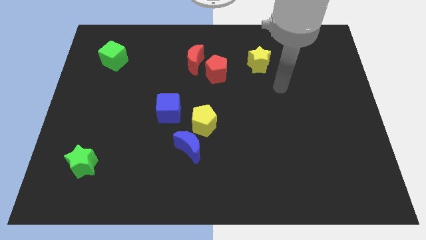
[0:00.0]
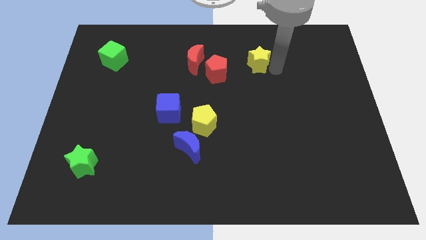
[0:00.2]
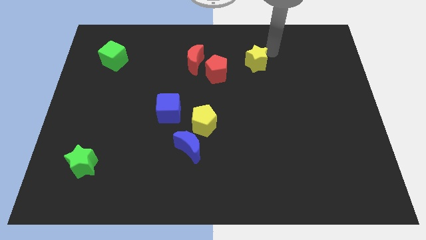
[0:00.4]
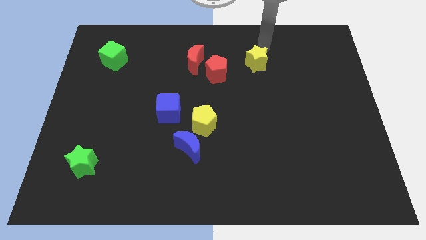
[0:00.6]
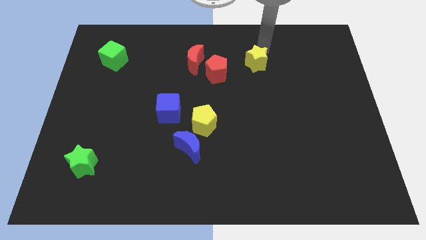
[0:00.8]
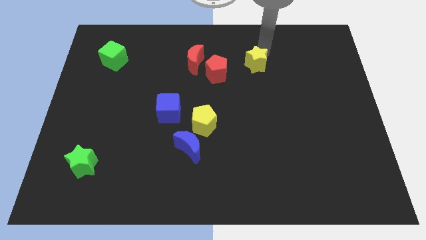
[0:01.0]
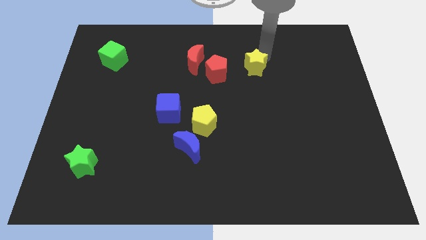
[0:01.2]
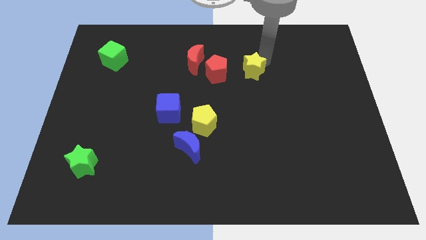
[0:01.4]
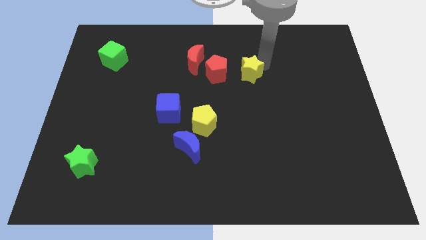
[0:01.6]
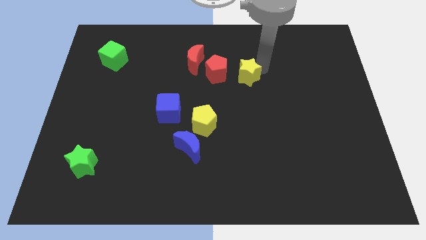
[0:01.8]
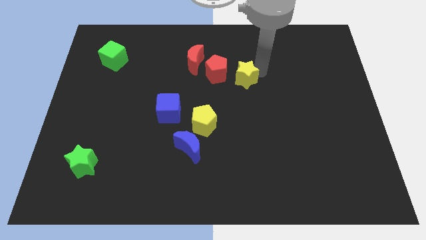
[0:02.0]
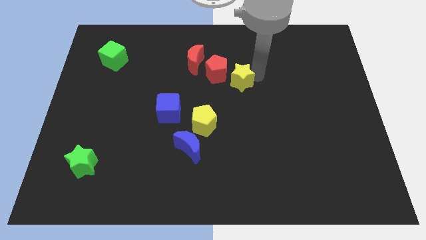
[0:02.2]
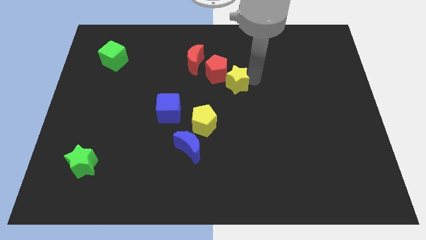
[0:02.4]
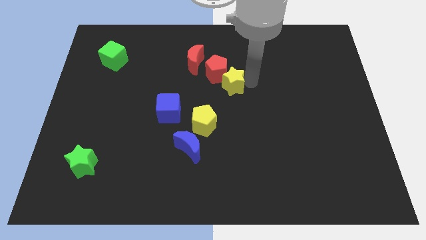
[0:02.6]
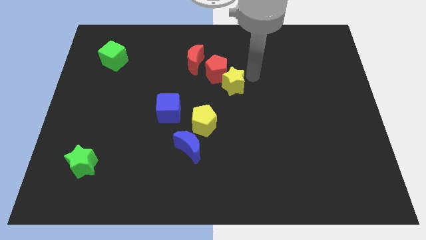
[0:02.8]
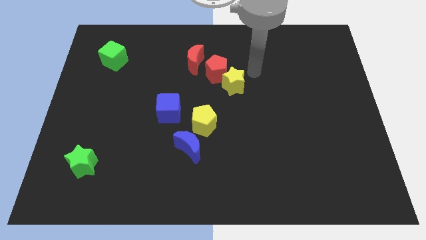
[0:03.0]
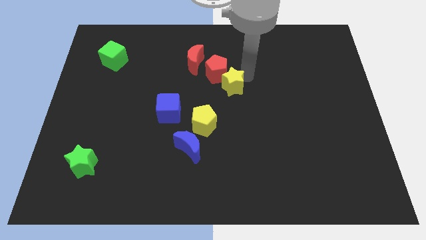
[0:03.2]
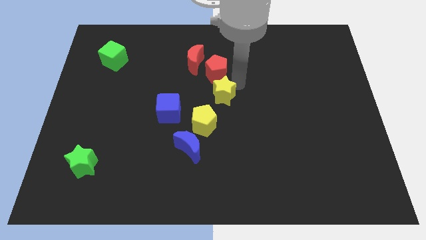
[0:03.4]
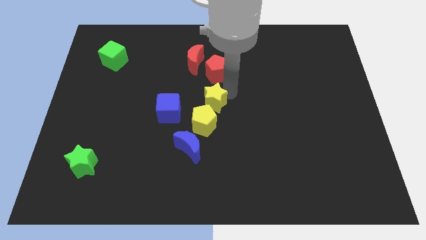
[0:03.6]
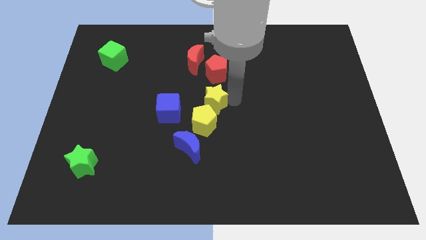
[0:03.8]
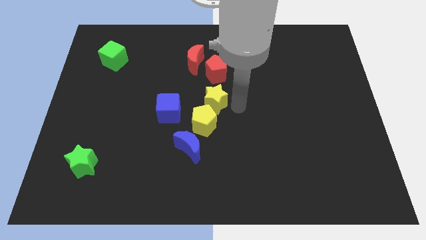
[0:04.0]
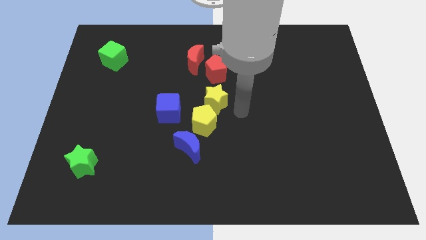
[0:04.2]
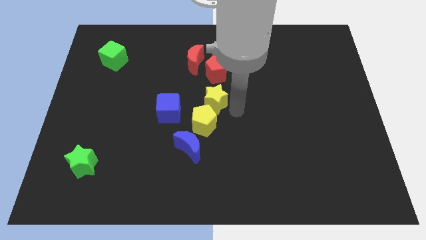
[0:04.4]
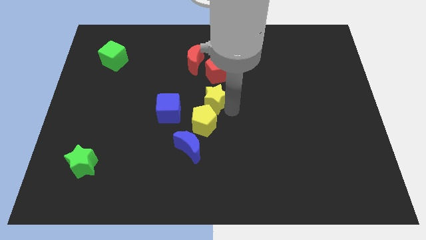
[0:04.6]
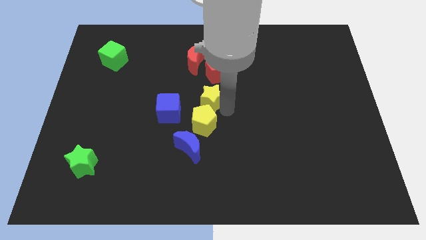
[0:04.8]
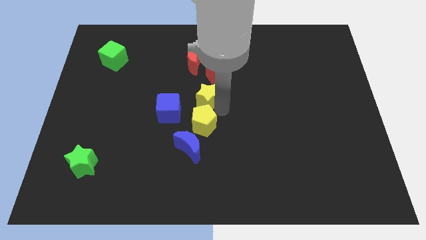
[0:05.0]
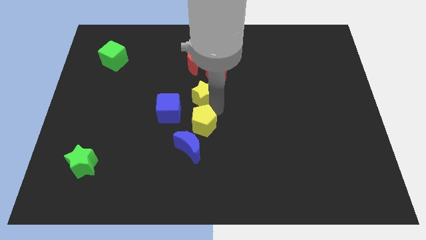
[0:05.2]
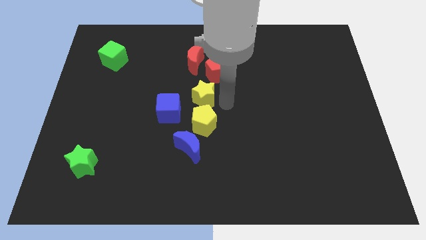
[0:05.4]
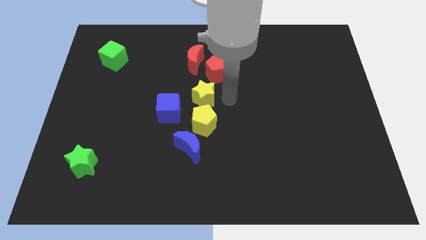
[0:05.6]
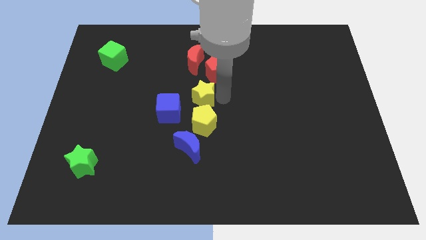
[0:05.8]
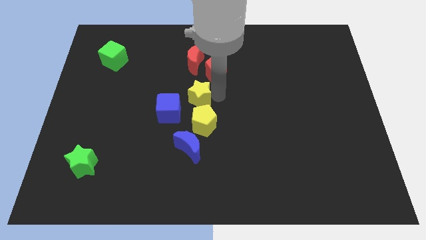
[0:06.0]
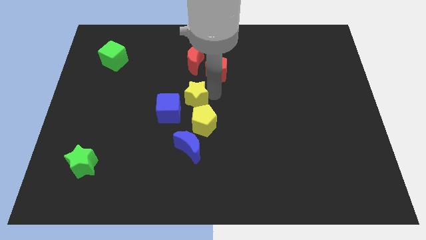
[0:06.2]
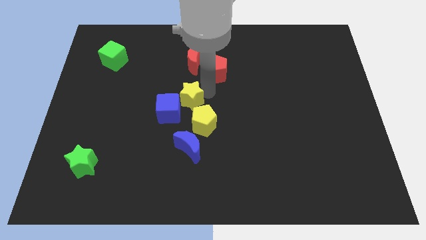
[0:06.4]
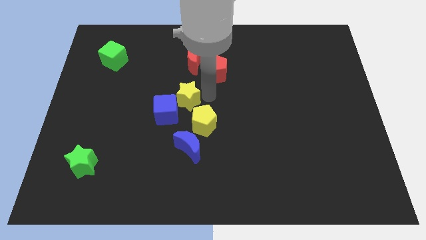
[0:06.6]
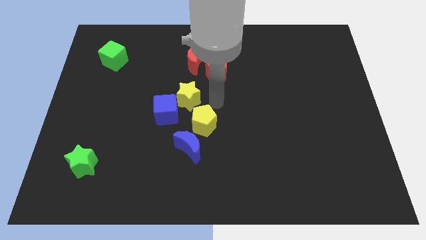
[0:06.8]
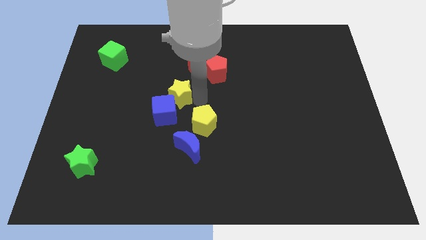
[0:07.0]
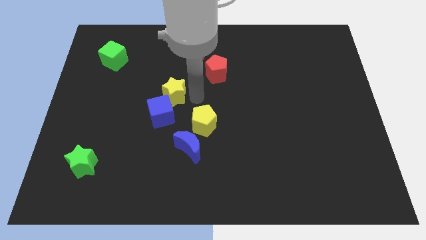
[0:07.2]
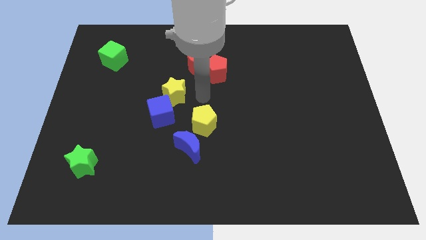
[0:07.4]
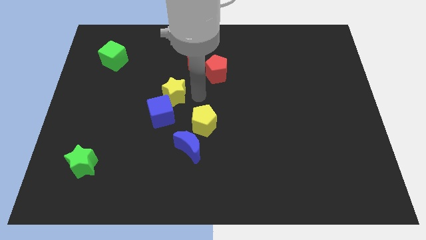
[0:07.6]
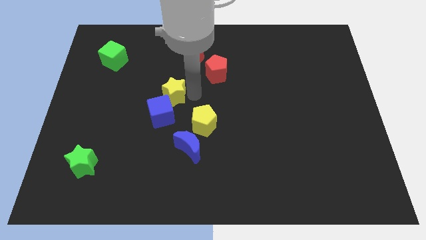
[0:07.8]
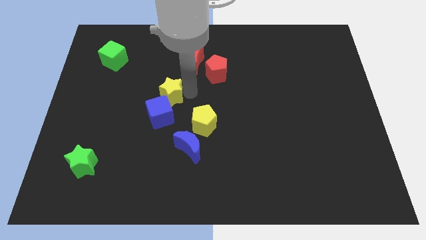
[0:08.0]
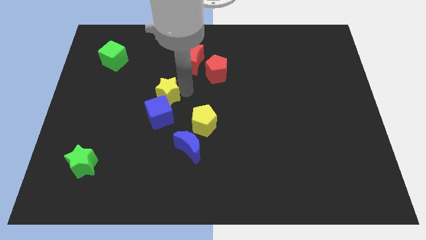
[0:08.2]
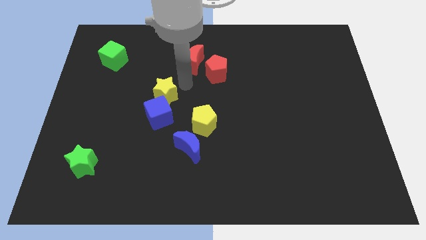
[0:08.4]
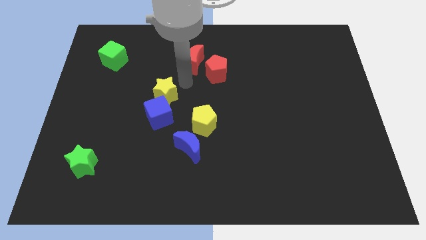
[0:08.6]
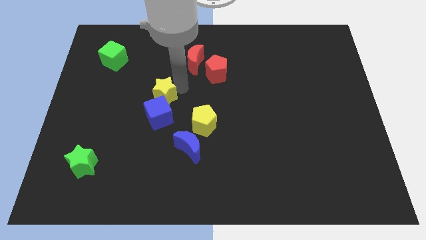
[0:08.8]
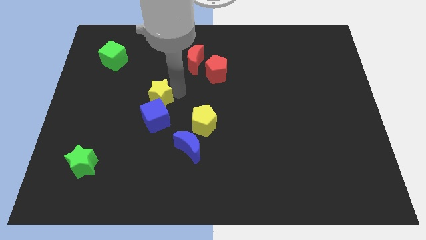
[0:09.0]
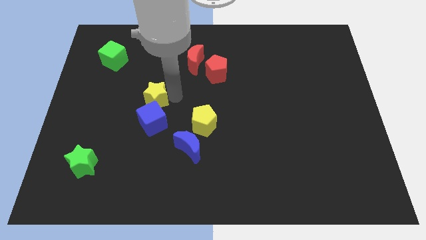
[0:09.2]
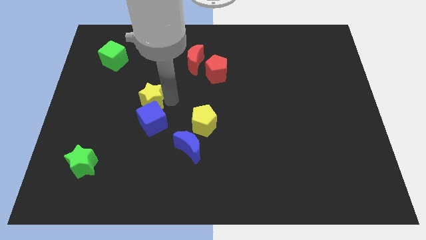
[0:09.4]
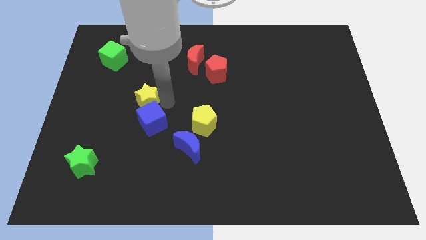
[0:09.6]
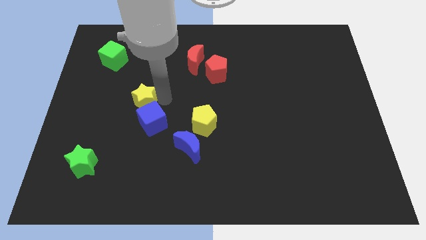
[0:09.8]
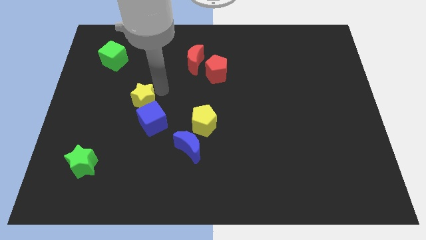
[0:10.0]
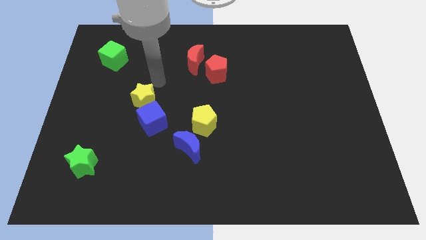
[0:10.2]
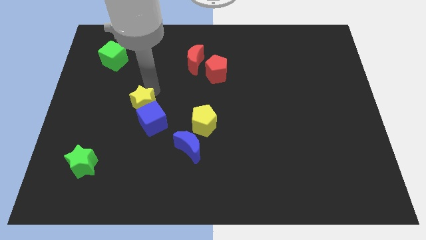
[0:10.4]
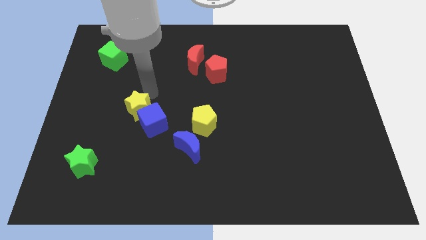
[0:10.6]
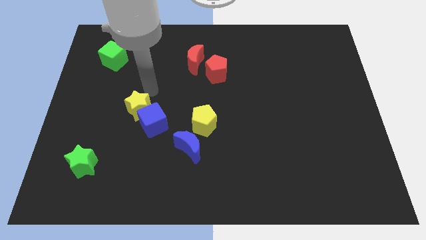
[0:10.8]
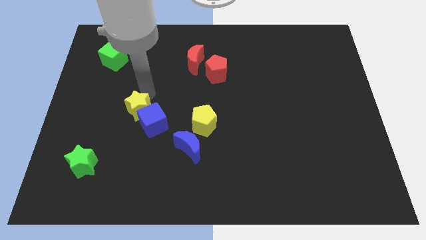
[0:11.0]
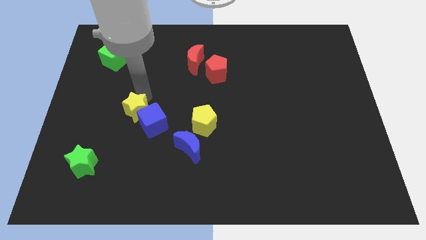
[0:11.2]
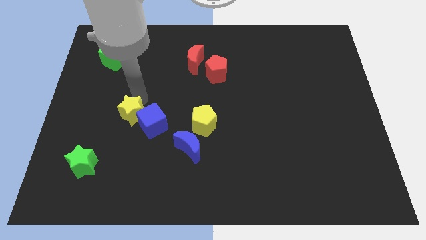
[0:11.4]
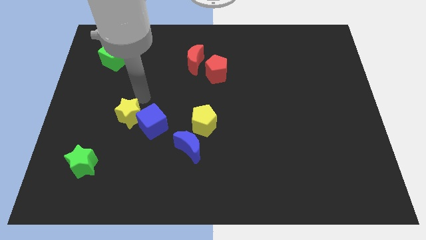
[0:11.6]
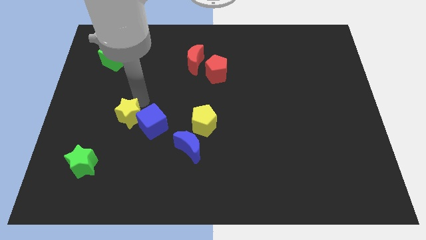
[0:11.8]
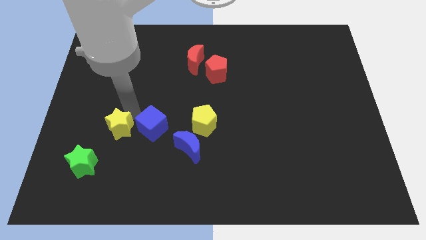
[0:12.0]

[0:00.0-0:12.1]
put the yellow star to the top right of the green star
